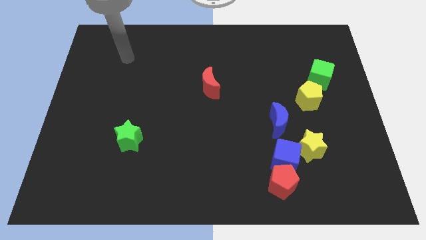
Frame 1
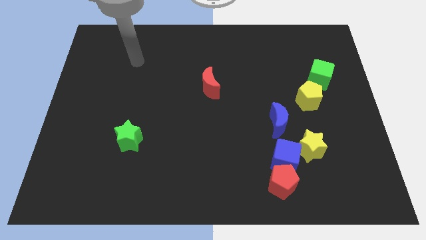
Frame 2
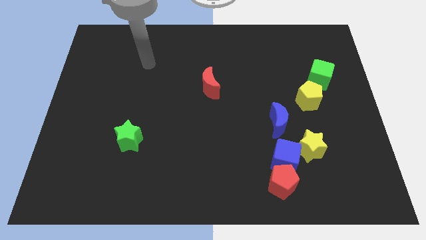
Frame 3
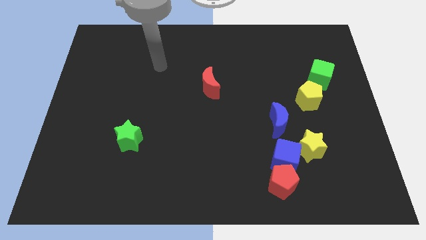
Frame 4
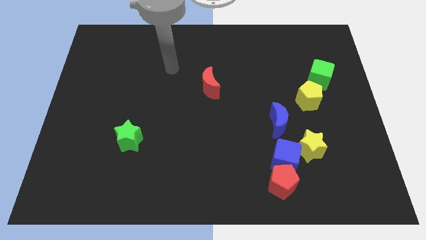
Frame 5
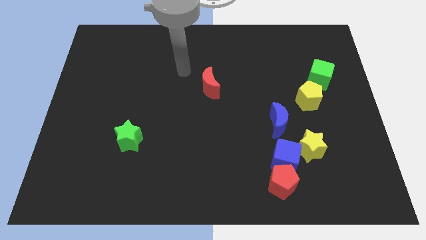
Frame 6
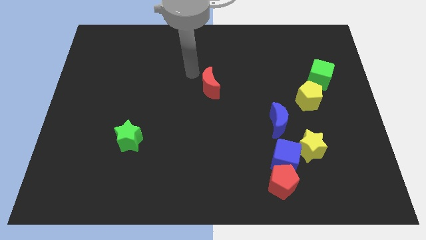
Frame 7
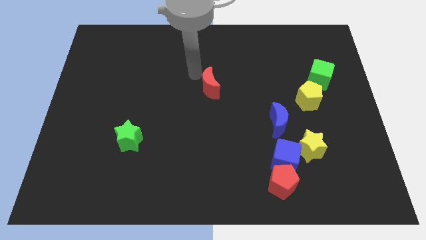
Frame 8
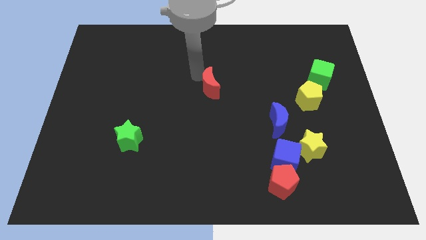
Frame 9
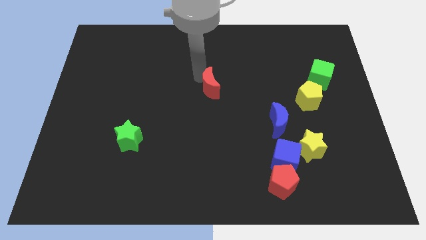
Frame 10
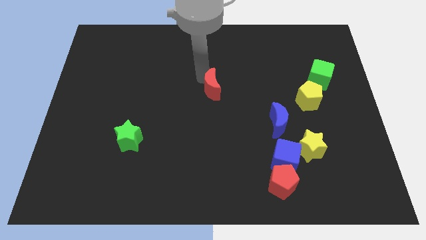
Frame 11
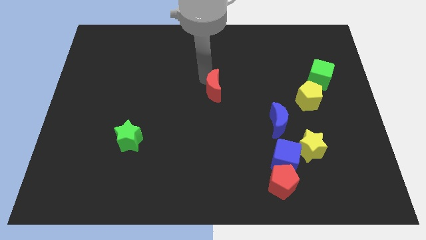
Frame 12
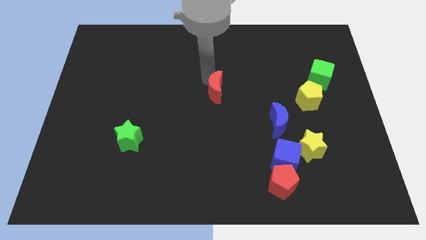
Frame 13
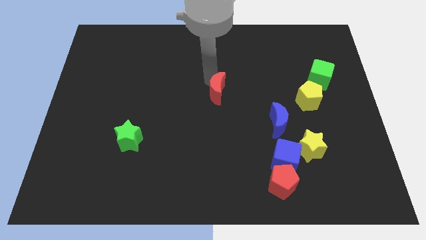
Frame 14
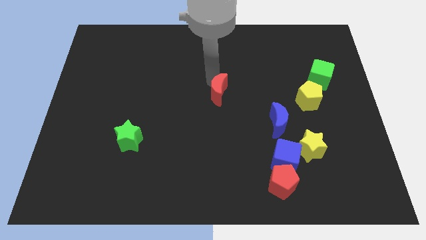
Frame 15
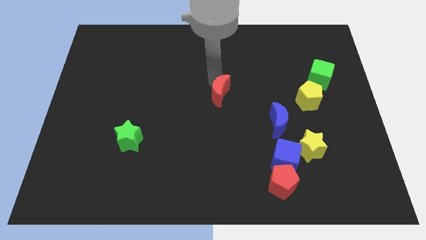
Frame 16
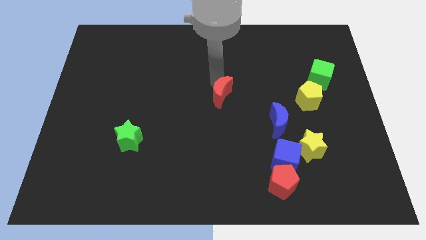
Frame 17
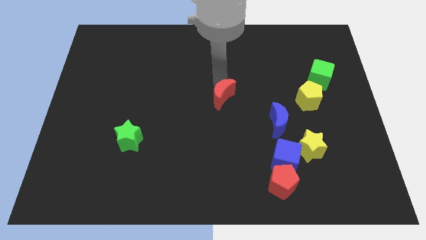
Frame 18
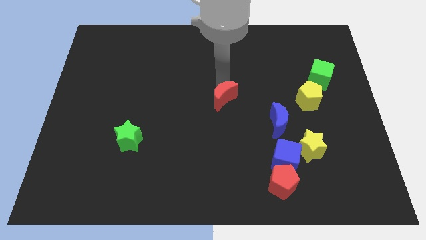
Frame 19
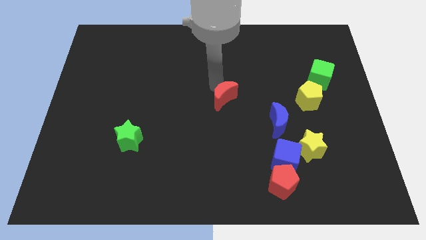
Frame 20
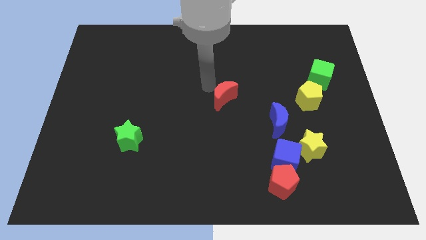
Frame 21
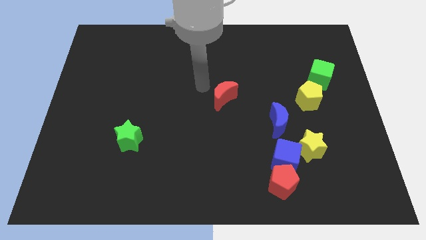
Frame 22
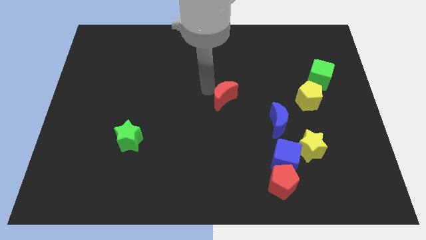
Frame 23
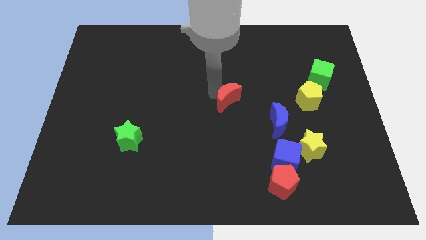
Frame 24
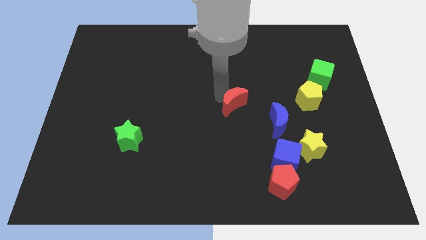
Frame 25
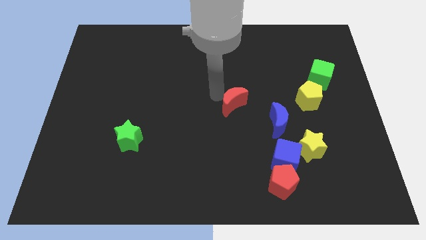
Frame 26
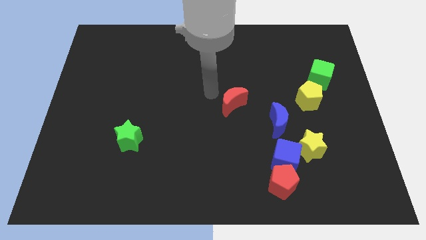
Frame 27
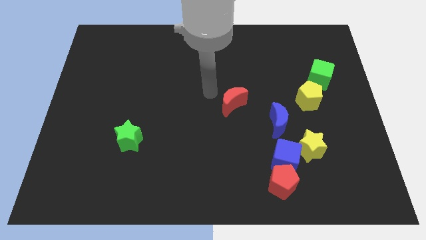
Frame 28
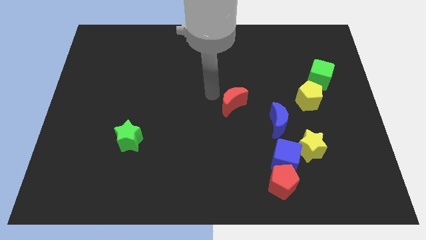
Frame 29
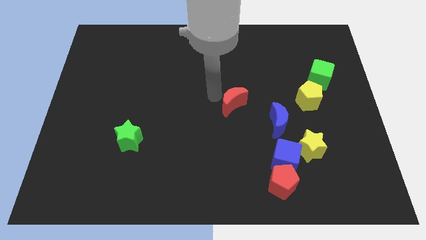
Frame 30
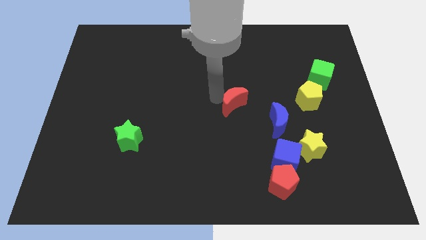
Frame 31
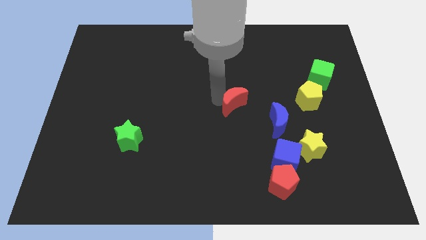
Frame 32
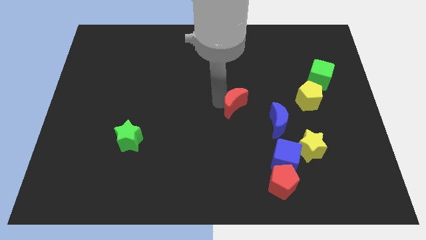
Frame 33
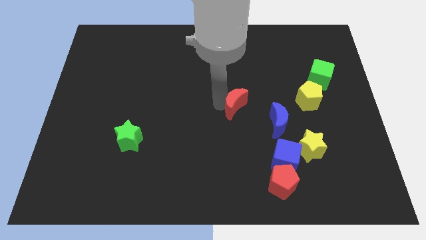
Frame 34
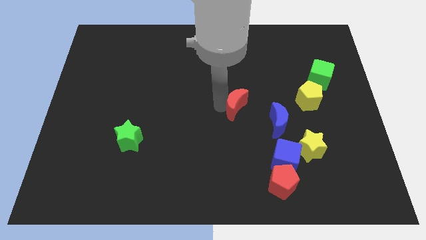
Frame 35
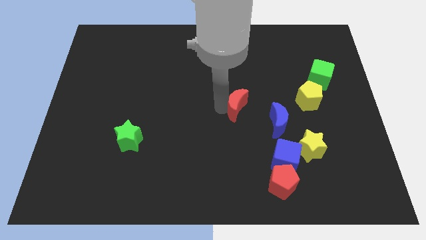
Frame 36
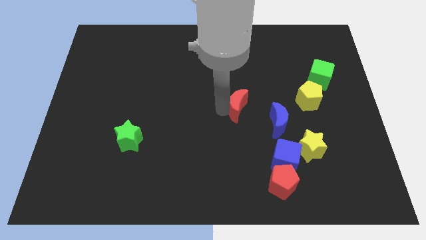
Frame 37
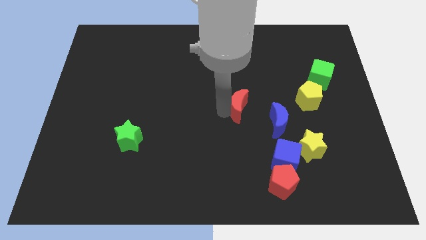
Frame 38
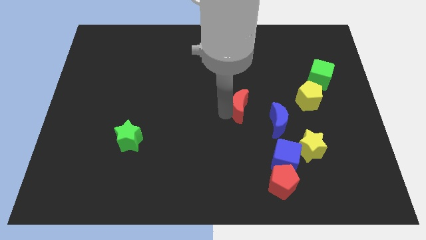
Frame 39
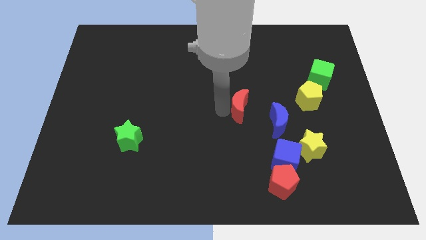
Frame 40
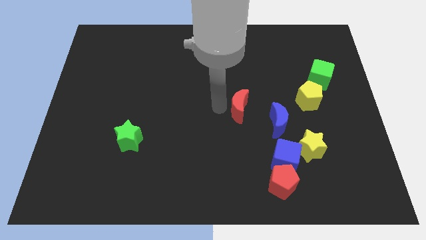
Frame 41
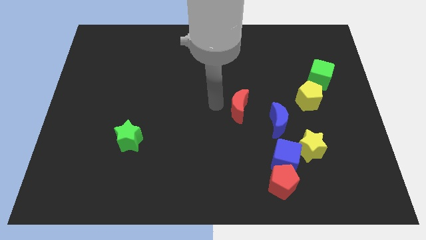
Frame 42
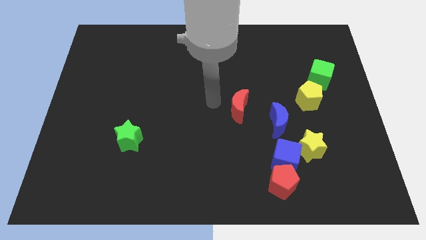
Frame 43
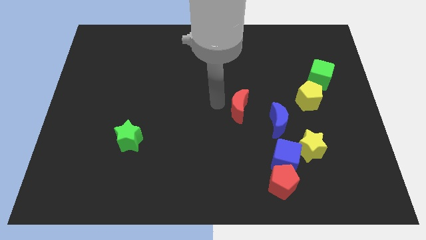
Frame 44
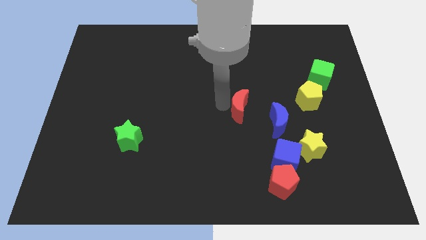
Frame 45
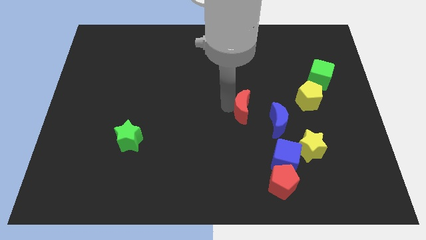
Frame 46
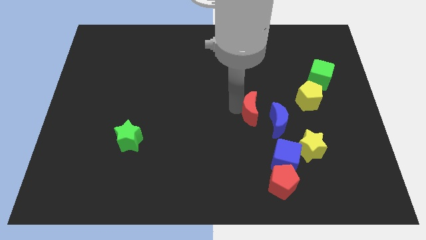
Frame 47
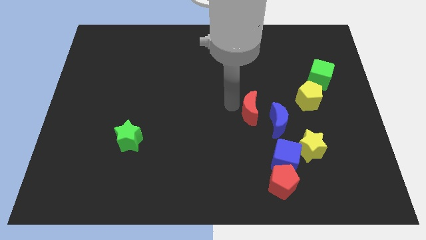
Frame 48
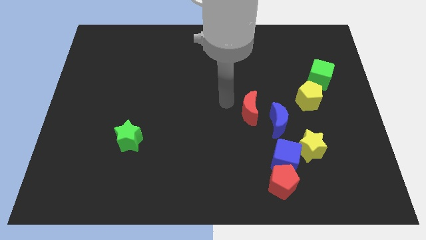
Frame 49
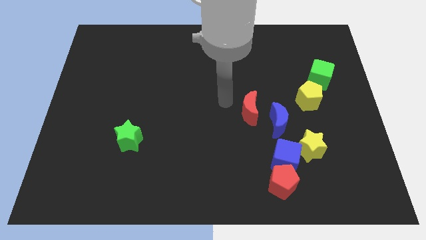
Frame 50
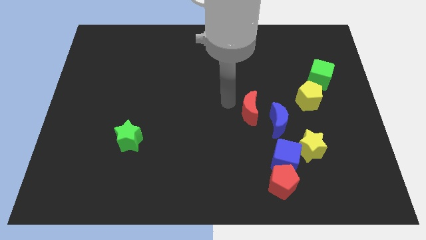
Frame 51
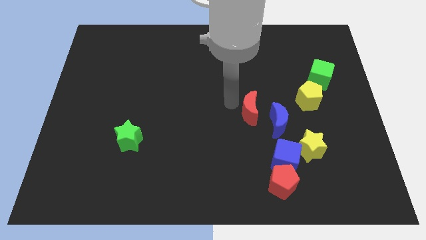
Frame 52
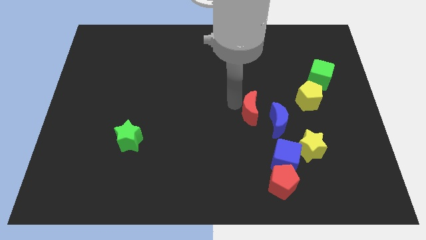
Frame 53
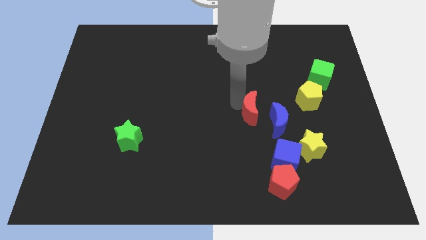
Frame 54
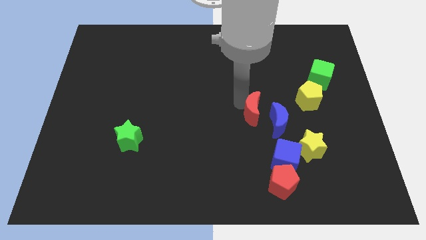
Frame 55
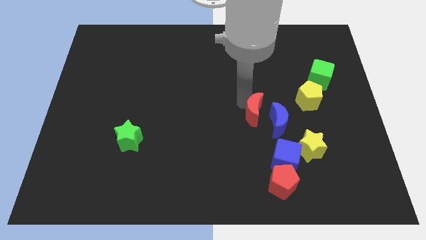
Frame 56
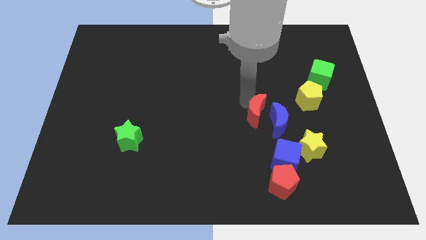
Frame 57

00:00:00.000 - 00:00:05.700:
move the red moon next to the blue moon

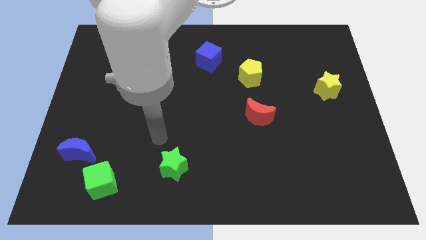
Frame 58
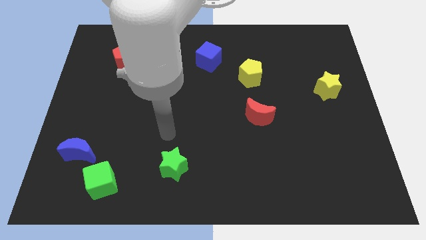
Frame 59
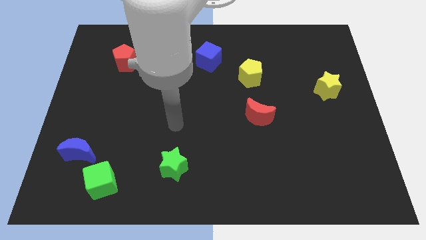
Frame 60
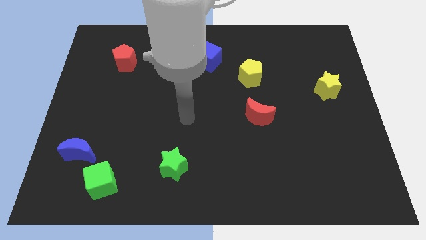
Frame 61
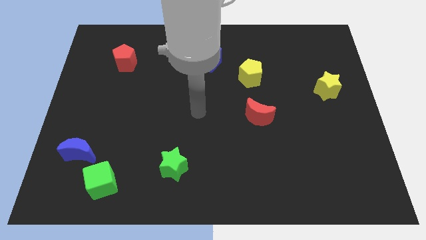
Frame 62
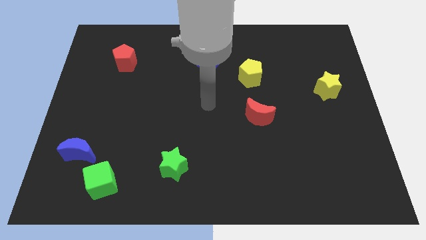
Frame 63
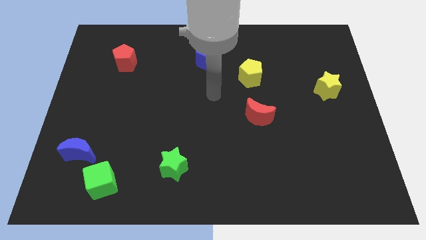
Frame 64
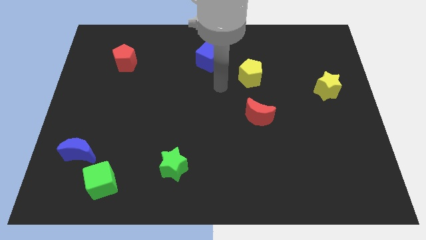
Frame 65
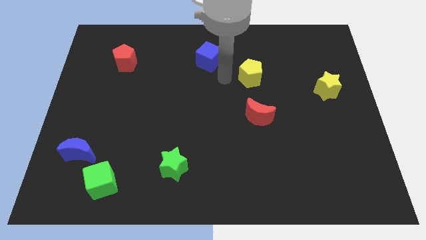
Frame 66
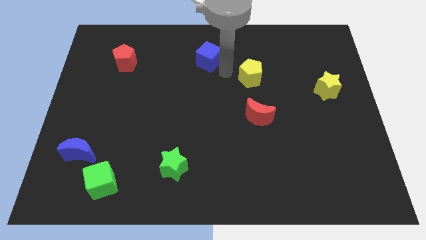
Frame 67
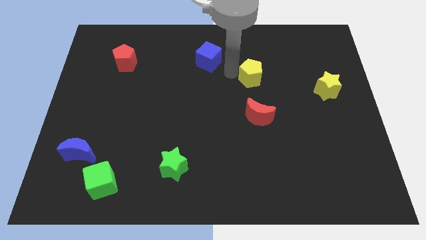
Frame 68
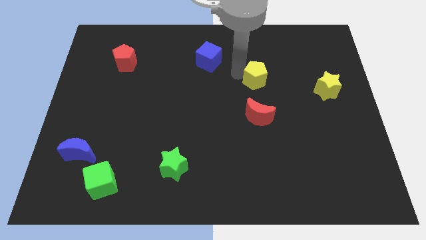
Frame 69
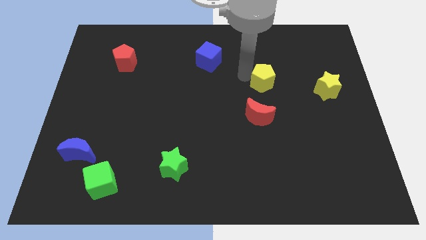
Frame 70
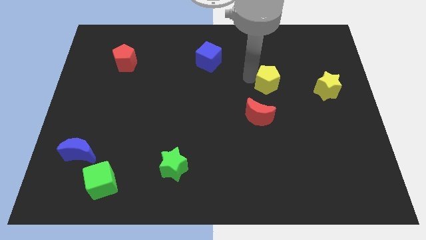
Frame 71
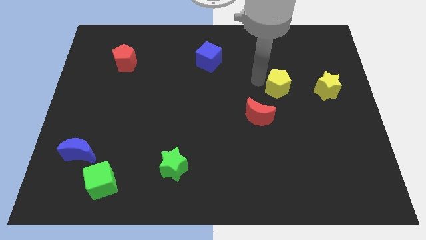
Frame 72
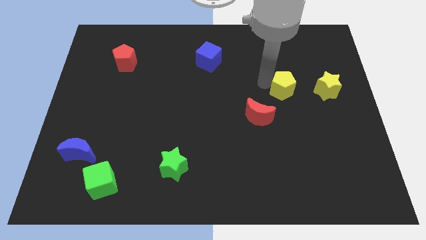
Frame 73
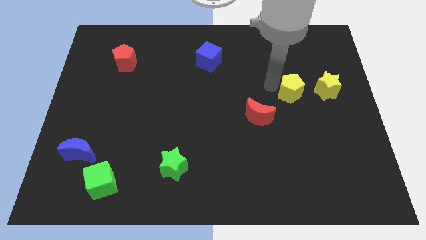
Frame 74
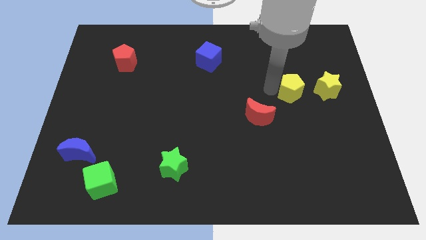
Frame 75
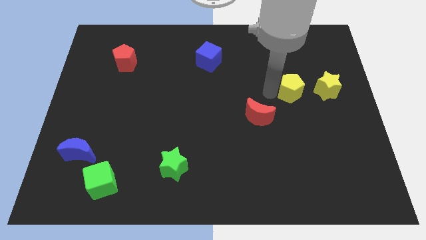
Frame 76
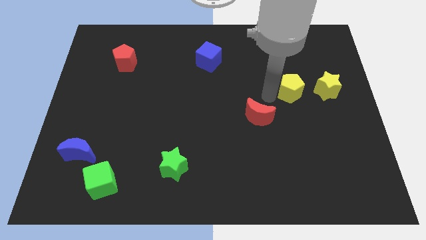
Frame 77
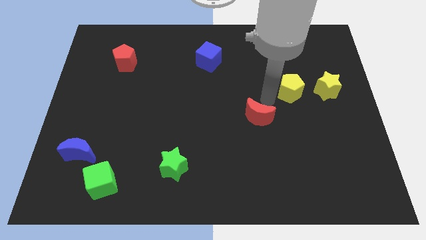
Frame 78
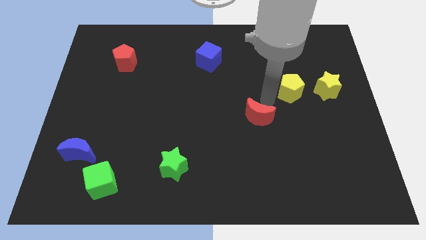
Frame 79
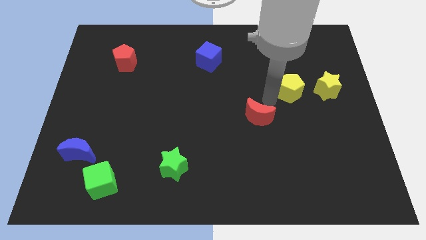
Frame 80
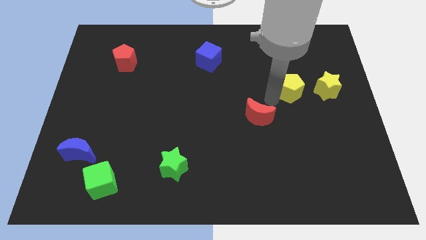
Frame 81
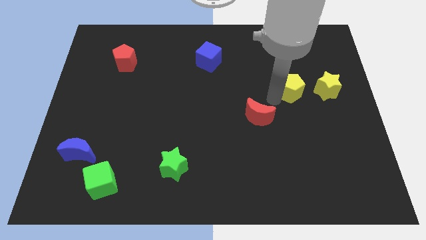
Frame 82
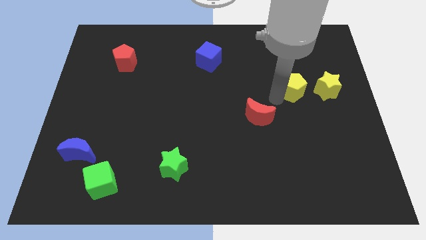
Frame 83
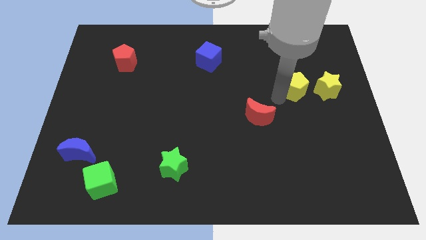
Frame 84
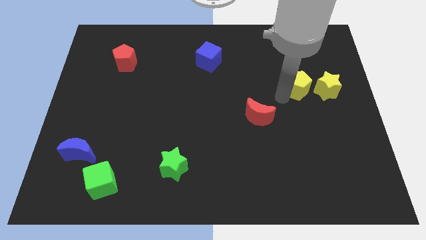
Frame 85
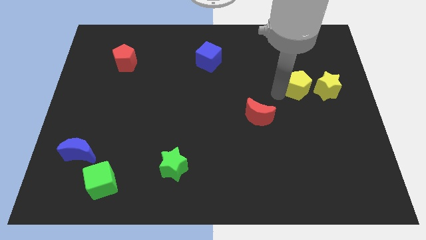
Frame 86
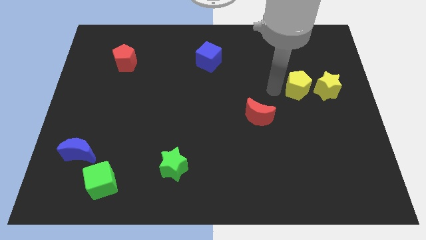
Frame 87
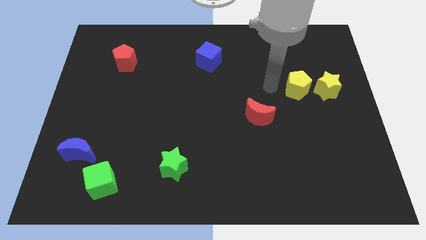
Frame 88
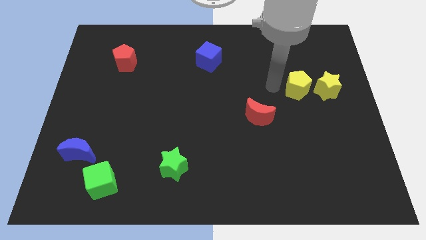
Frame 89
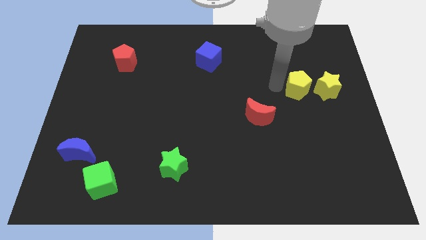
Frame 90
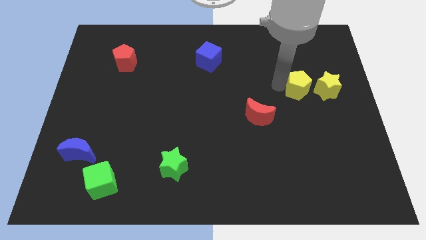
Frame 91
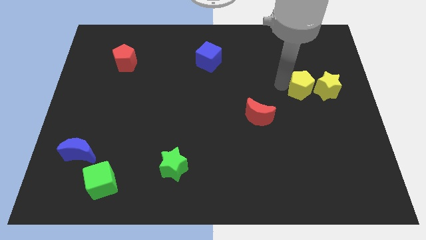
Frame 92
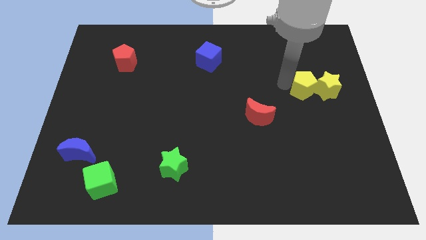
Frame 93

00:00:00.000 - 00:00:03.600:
push the yellow pentagon next to the yellow star
